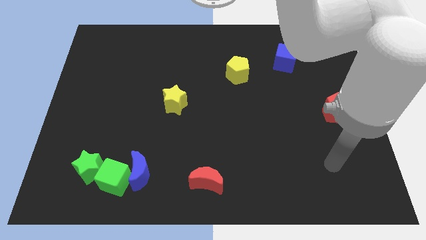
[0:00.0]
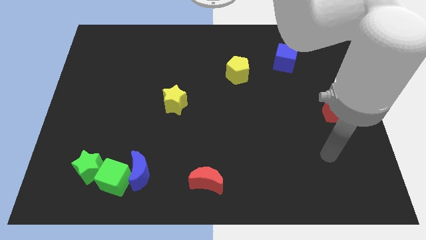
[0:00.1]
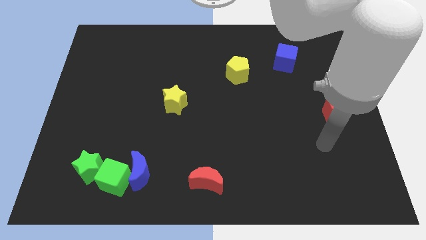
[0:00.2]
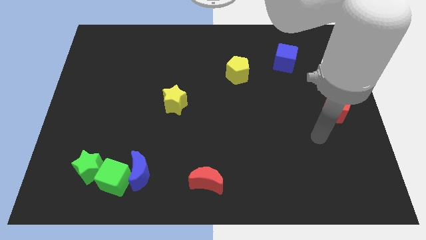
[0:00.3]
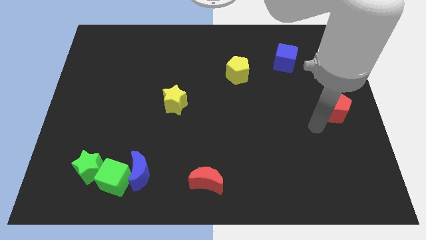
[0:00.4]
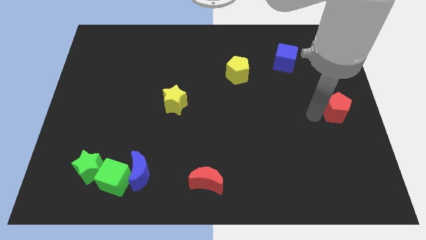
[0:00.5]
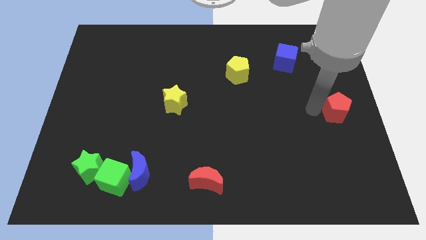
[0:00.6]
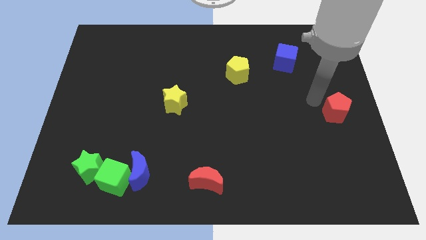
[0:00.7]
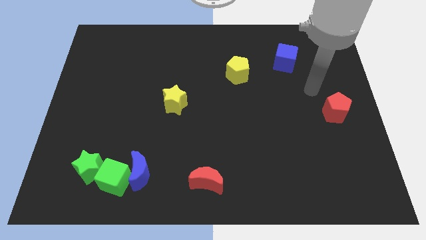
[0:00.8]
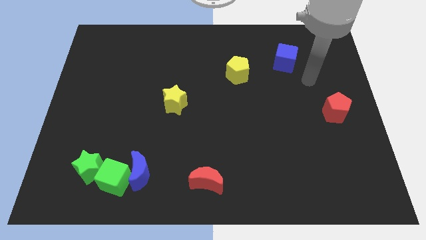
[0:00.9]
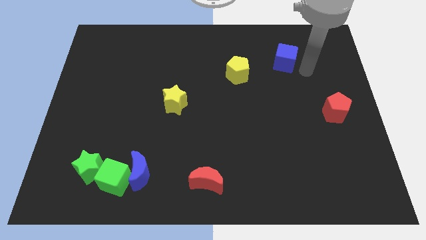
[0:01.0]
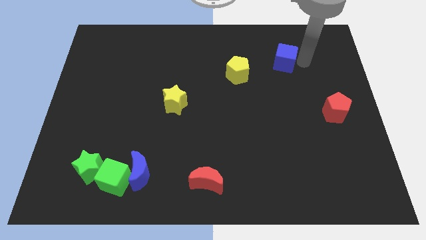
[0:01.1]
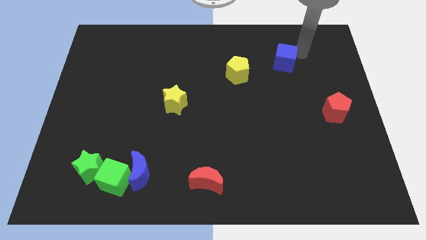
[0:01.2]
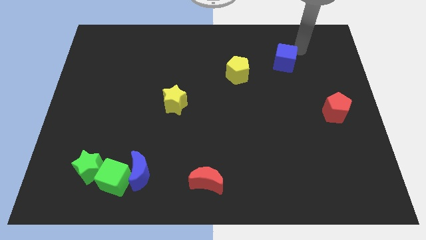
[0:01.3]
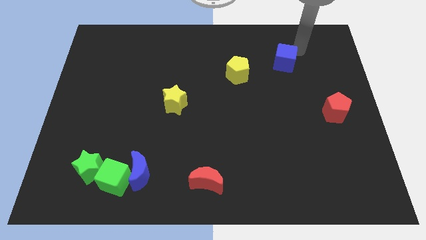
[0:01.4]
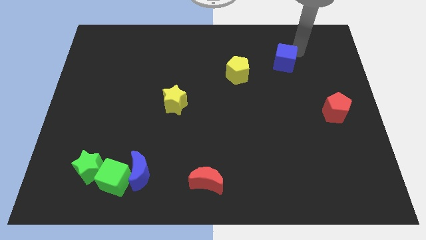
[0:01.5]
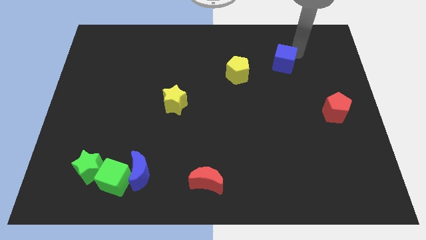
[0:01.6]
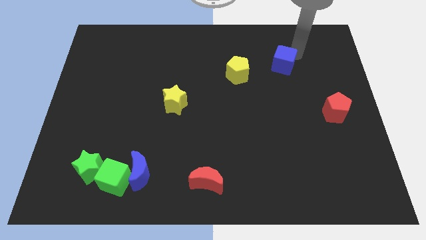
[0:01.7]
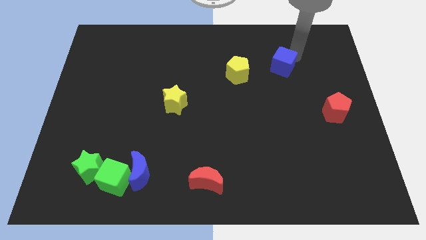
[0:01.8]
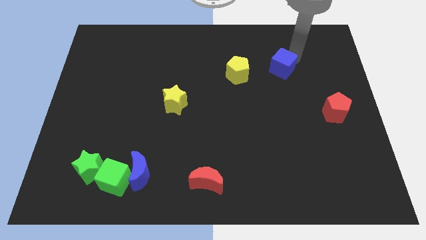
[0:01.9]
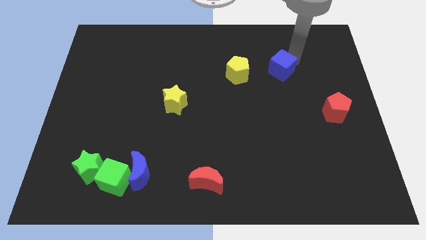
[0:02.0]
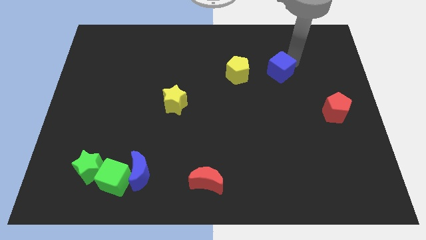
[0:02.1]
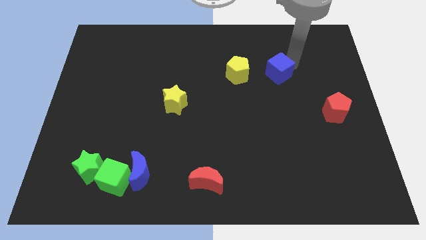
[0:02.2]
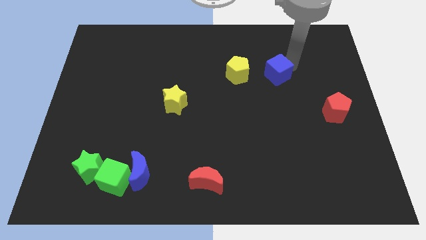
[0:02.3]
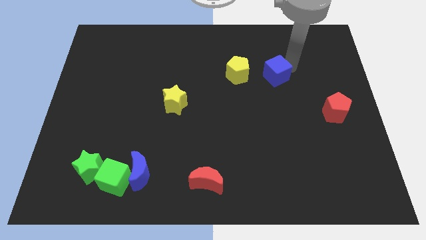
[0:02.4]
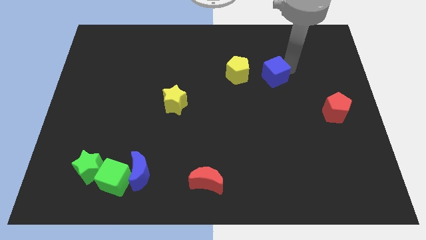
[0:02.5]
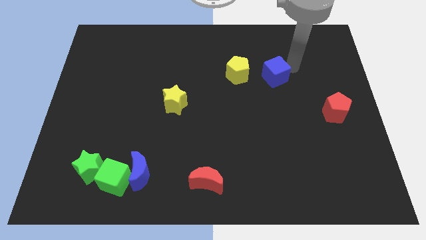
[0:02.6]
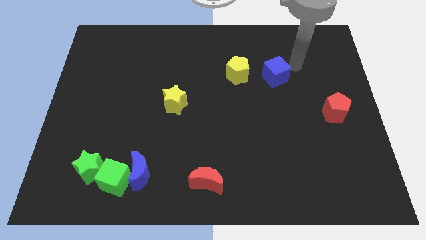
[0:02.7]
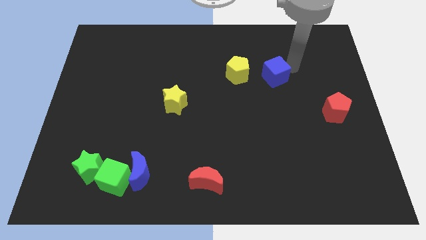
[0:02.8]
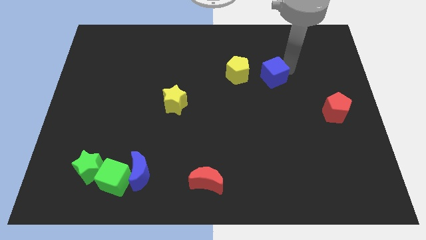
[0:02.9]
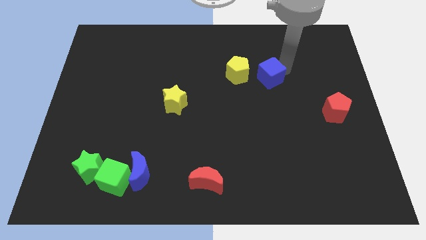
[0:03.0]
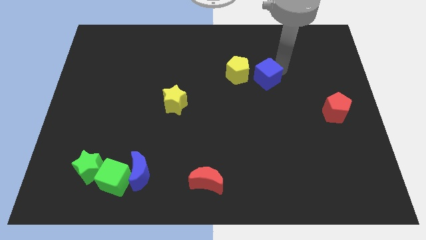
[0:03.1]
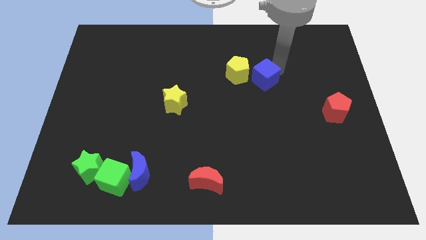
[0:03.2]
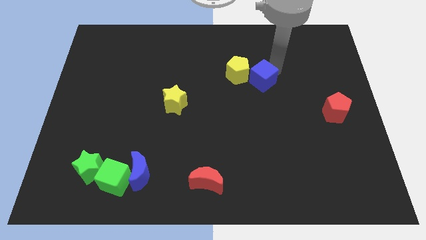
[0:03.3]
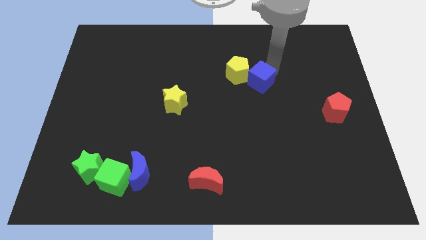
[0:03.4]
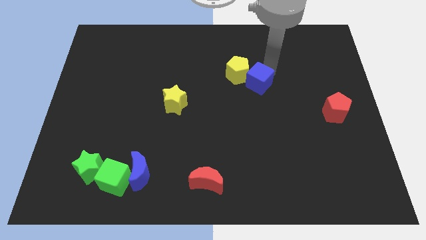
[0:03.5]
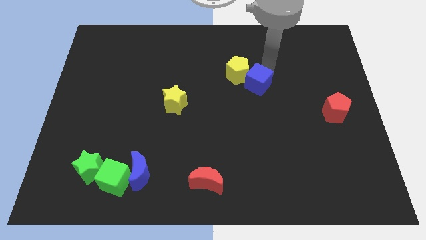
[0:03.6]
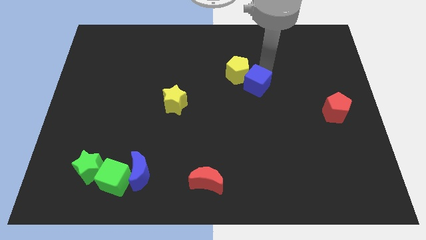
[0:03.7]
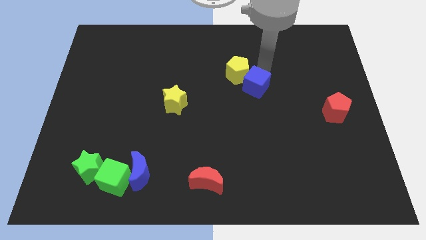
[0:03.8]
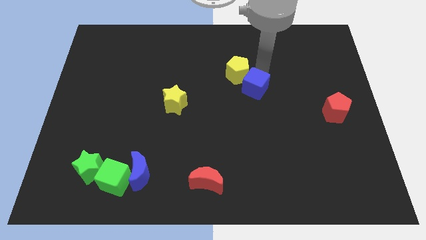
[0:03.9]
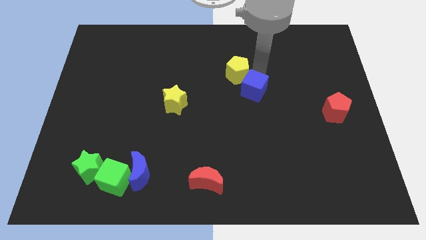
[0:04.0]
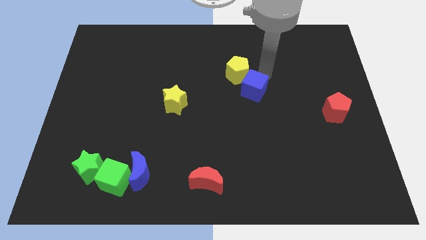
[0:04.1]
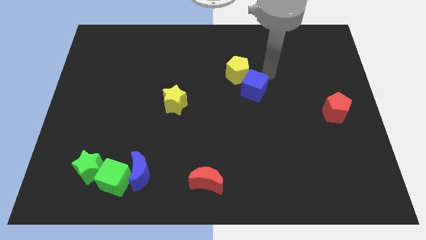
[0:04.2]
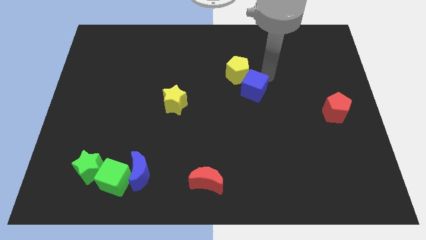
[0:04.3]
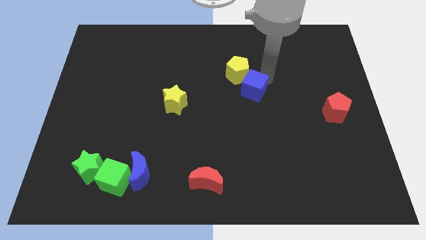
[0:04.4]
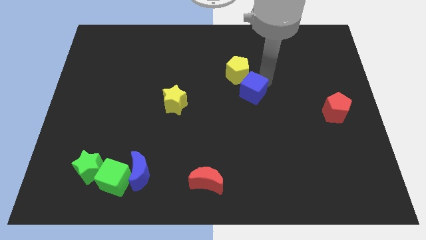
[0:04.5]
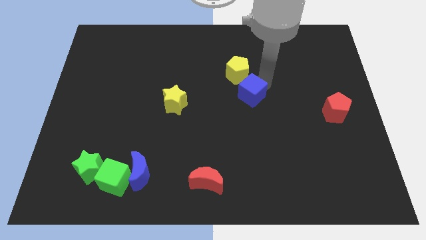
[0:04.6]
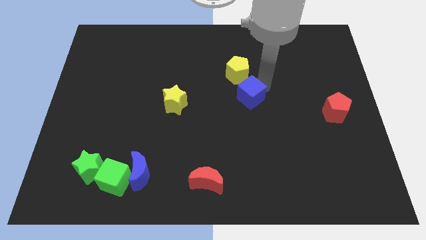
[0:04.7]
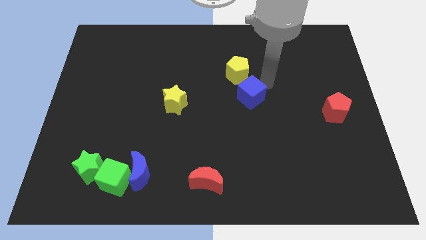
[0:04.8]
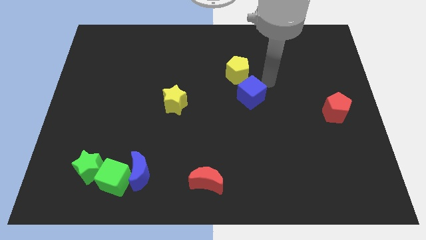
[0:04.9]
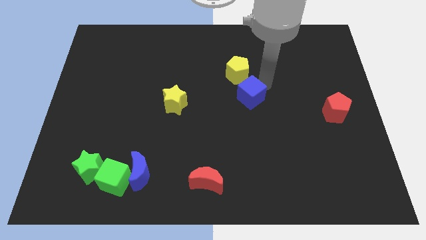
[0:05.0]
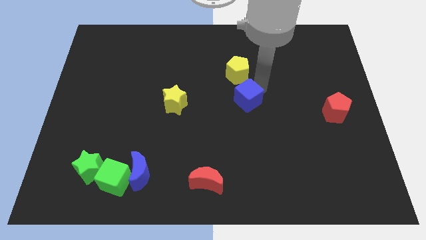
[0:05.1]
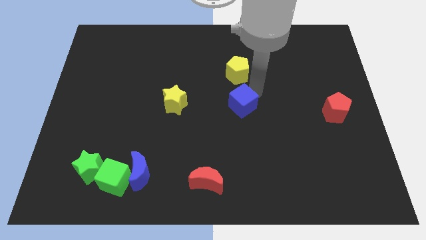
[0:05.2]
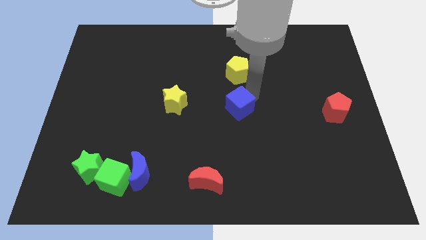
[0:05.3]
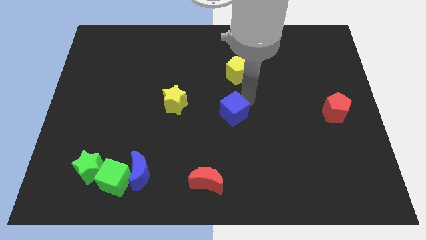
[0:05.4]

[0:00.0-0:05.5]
push the blue cube downwards and to the left

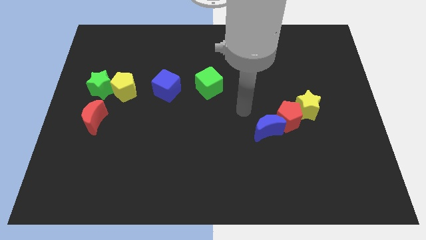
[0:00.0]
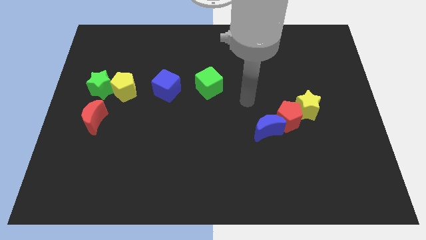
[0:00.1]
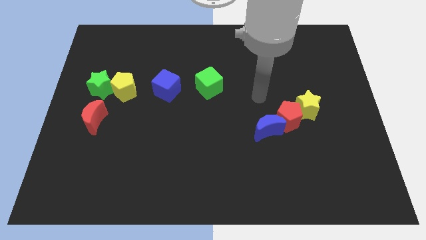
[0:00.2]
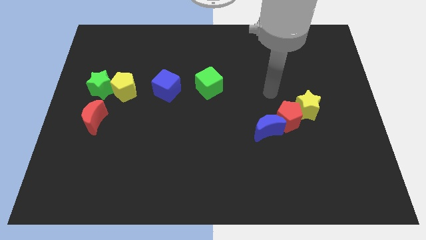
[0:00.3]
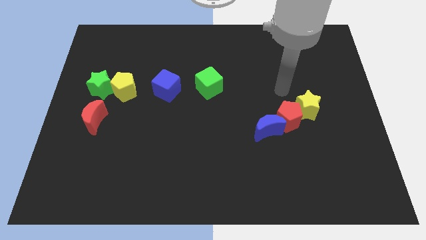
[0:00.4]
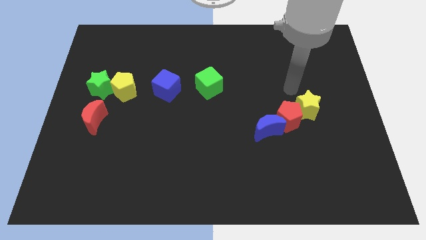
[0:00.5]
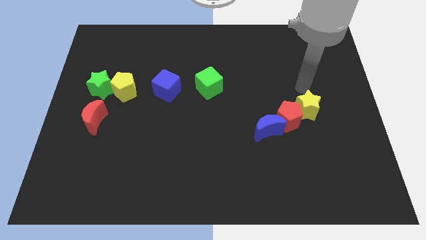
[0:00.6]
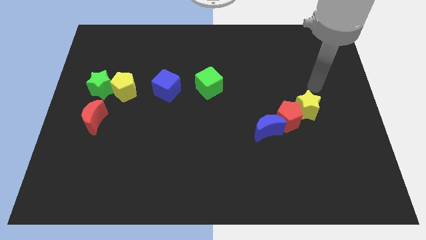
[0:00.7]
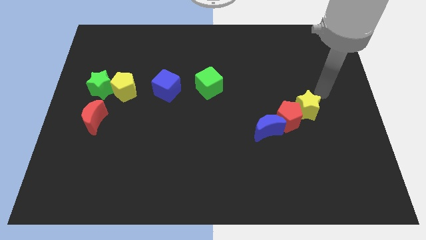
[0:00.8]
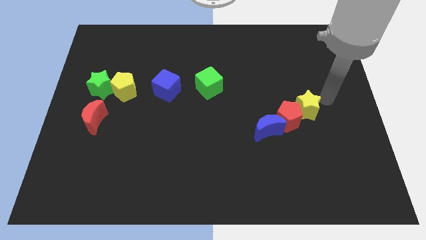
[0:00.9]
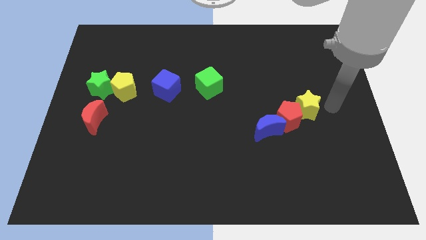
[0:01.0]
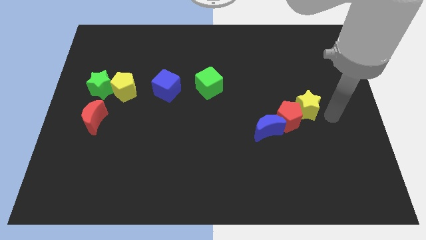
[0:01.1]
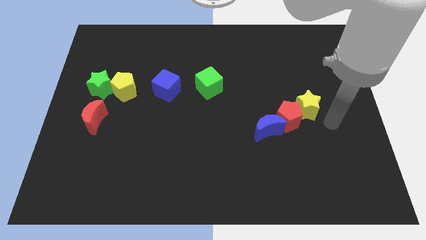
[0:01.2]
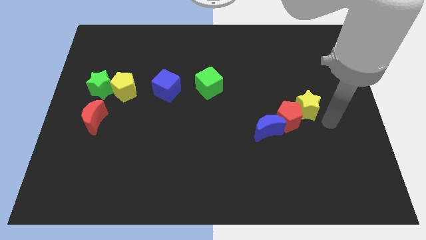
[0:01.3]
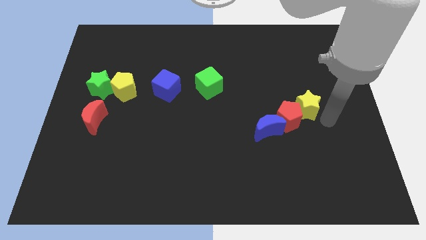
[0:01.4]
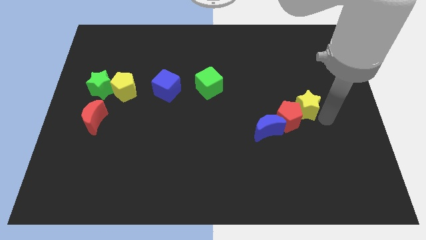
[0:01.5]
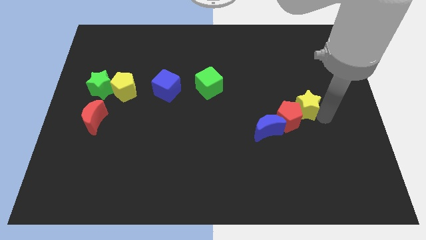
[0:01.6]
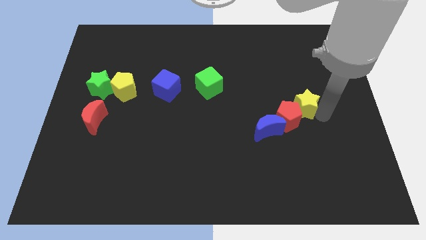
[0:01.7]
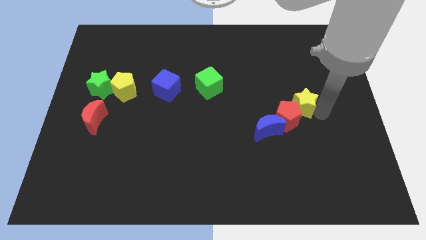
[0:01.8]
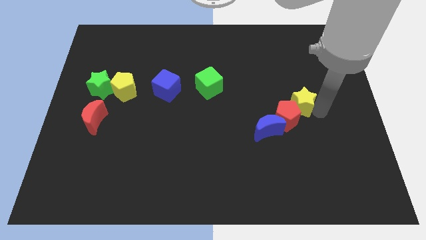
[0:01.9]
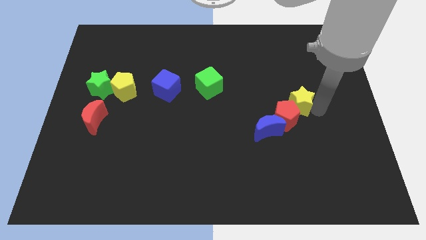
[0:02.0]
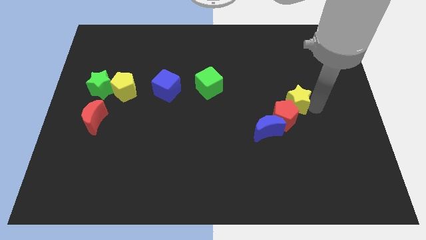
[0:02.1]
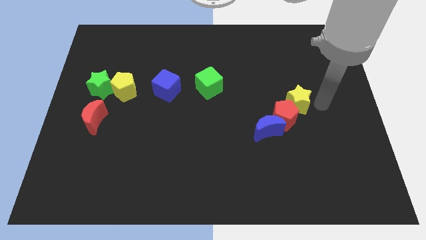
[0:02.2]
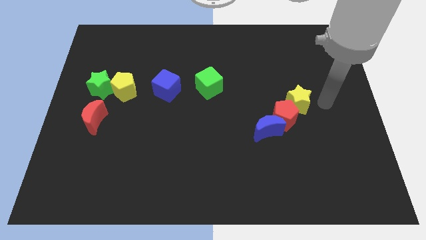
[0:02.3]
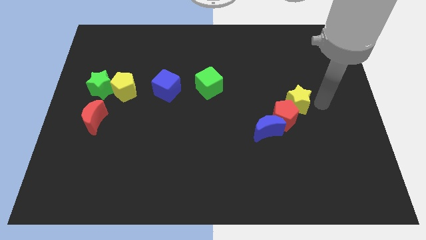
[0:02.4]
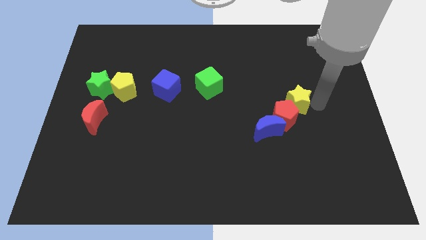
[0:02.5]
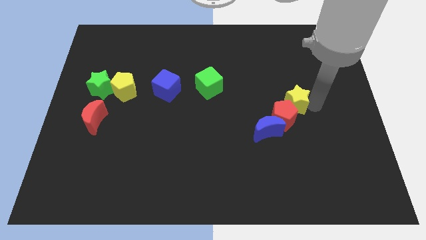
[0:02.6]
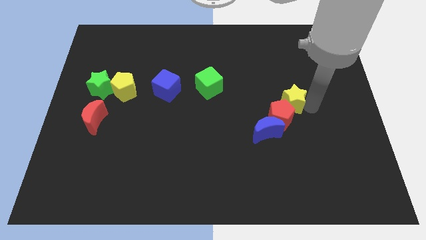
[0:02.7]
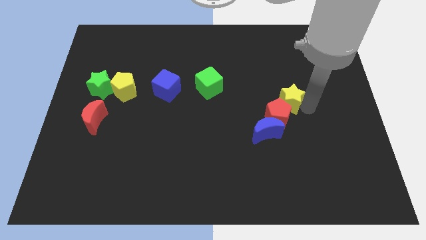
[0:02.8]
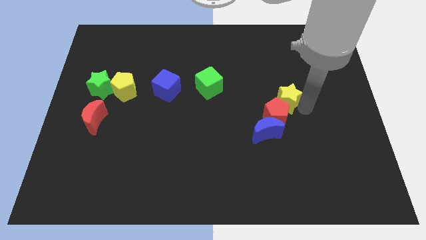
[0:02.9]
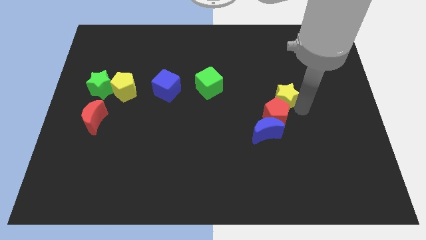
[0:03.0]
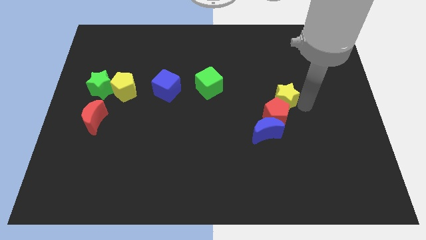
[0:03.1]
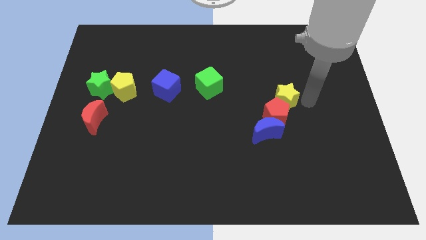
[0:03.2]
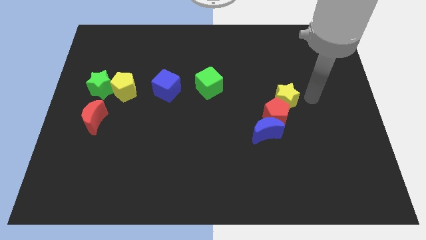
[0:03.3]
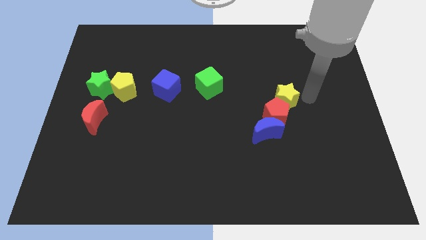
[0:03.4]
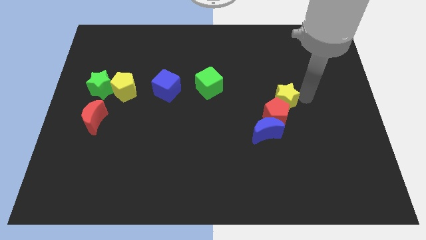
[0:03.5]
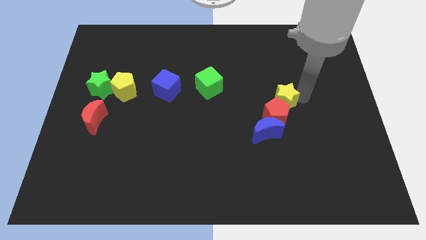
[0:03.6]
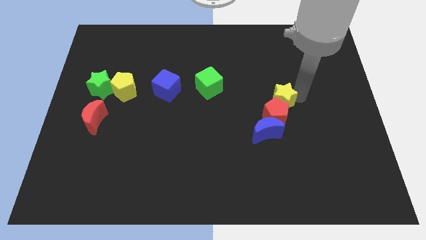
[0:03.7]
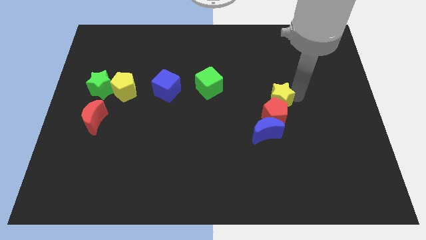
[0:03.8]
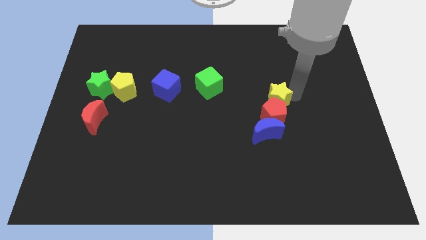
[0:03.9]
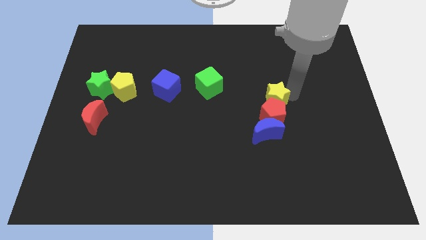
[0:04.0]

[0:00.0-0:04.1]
slightly push the yellow star left
